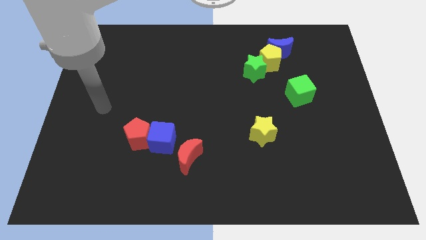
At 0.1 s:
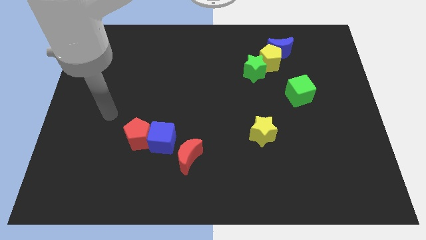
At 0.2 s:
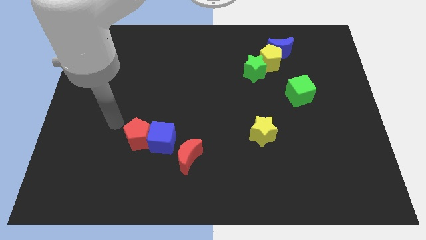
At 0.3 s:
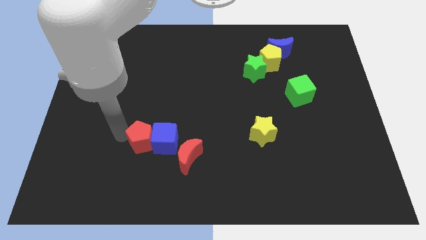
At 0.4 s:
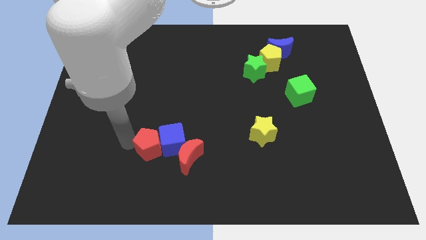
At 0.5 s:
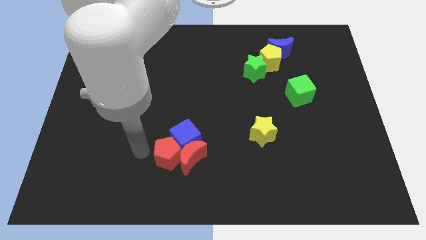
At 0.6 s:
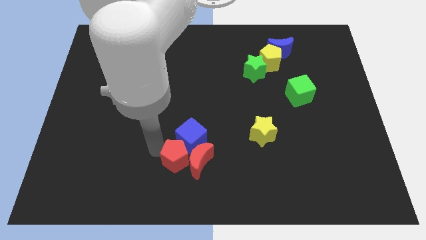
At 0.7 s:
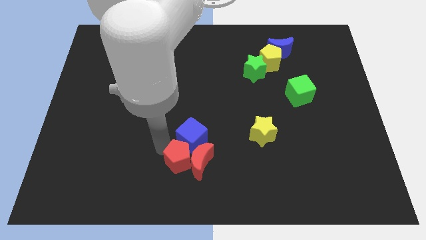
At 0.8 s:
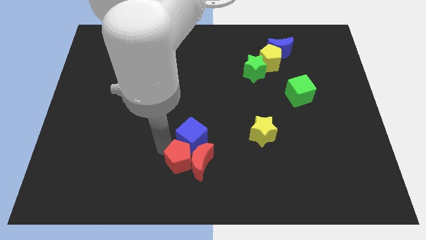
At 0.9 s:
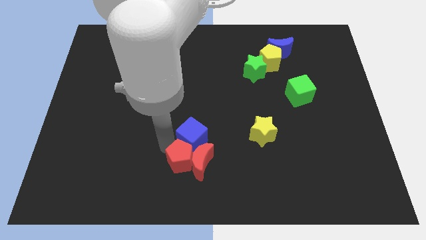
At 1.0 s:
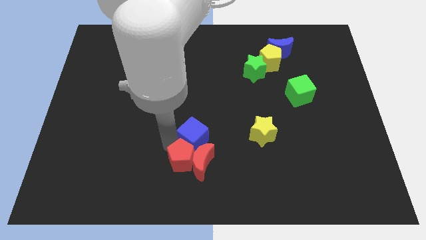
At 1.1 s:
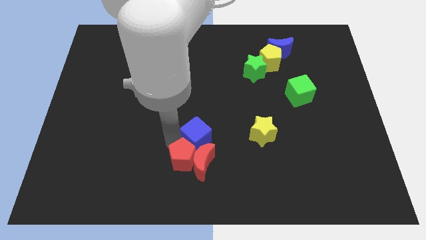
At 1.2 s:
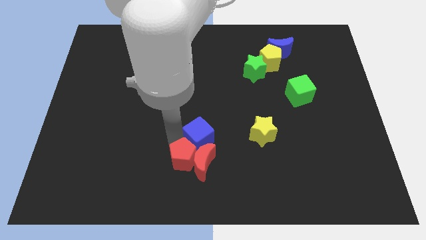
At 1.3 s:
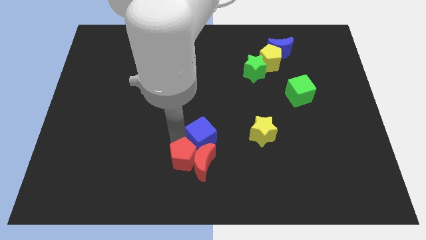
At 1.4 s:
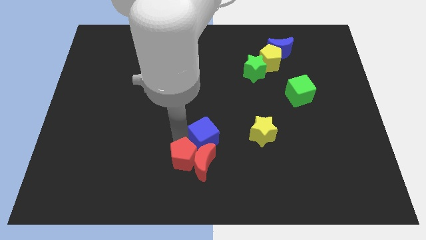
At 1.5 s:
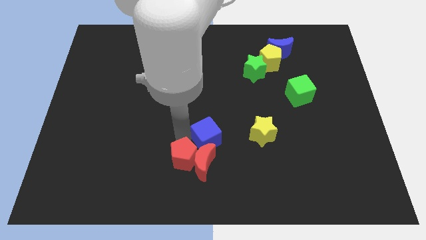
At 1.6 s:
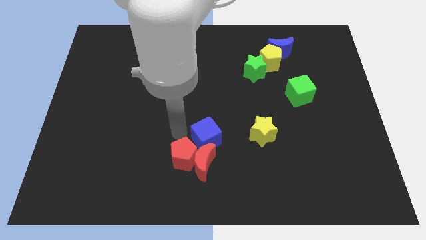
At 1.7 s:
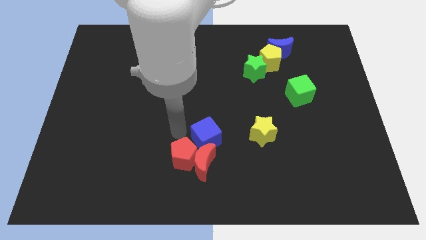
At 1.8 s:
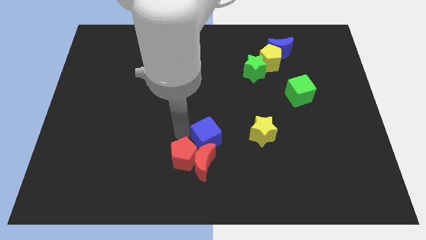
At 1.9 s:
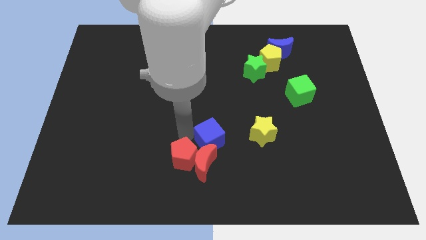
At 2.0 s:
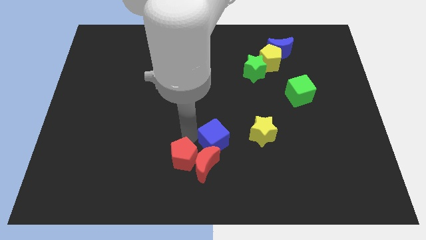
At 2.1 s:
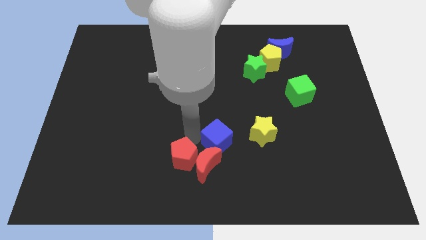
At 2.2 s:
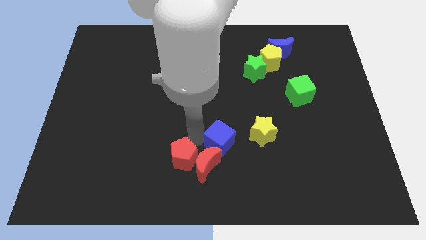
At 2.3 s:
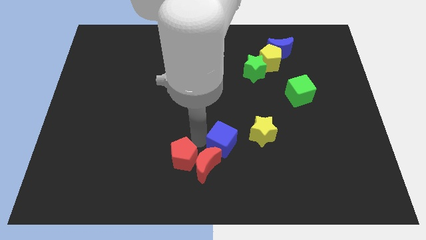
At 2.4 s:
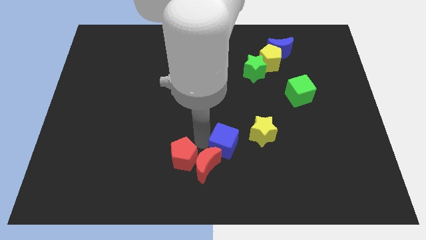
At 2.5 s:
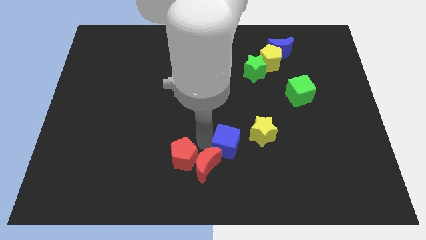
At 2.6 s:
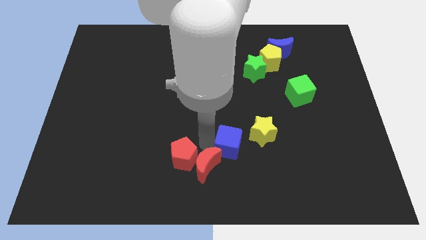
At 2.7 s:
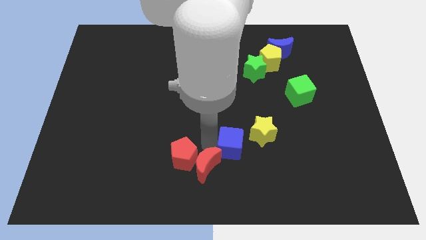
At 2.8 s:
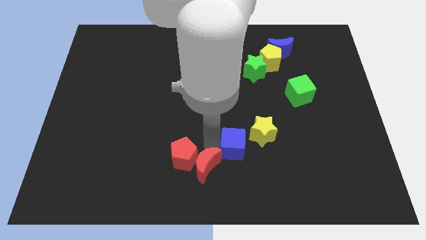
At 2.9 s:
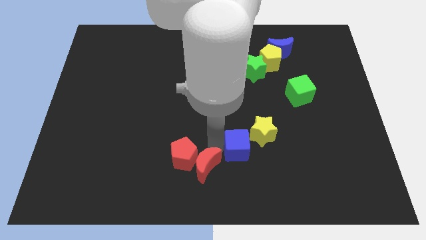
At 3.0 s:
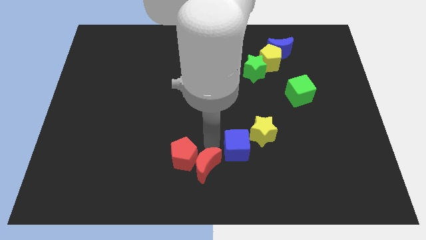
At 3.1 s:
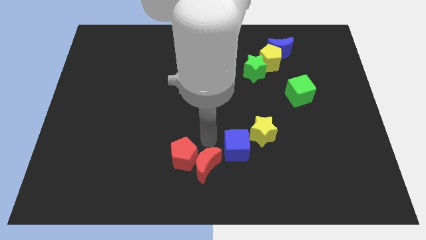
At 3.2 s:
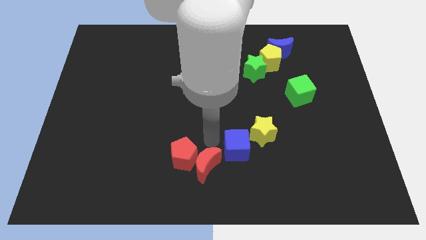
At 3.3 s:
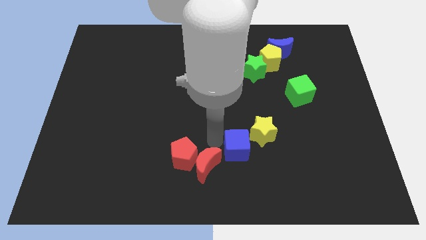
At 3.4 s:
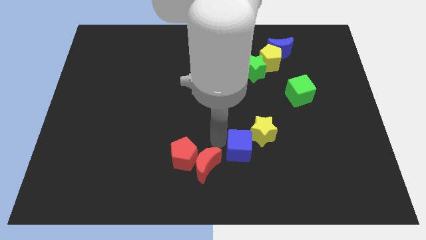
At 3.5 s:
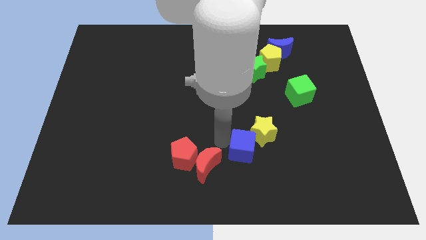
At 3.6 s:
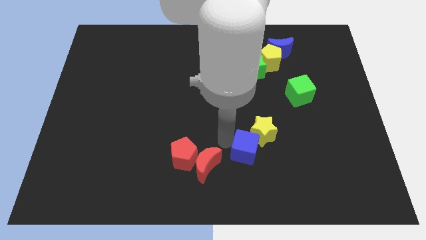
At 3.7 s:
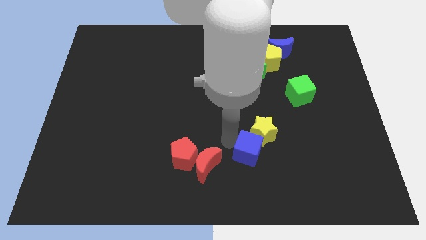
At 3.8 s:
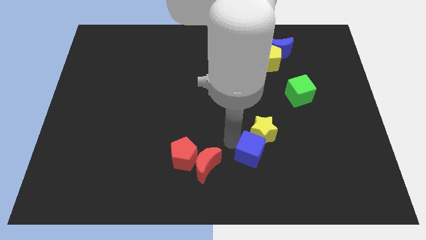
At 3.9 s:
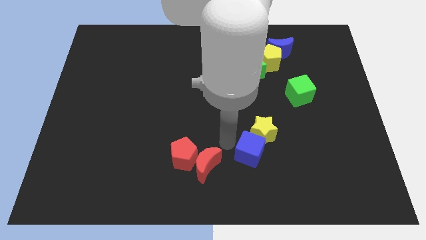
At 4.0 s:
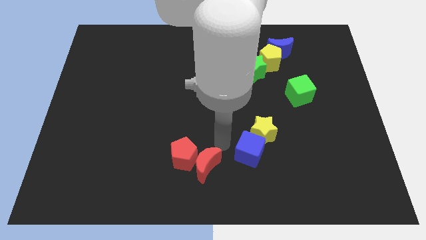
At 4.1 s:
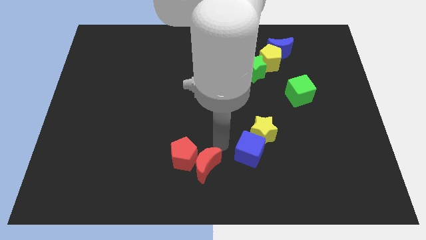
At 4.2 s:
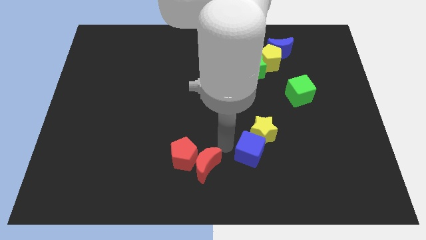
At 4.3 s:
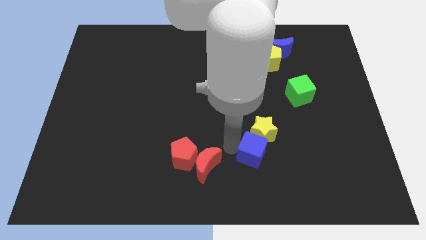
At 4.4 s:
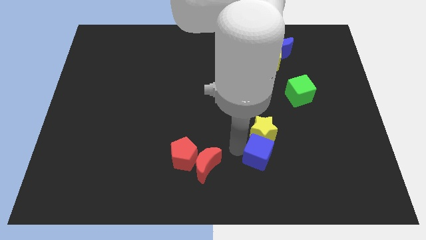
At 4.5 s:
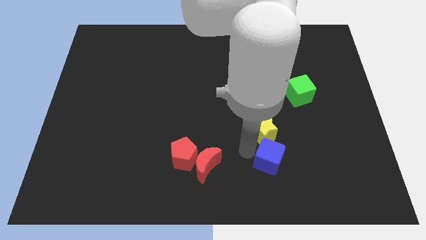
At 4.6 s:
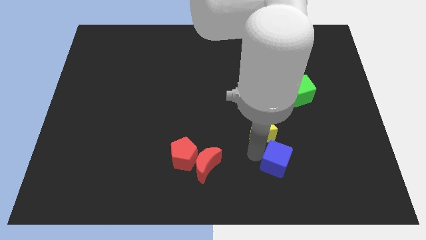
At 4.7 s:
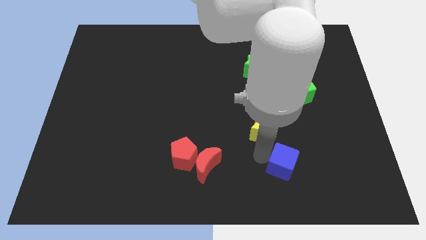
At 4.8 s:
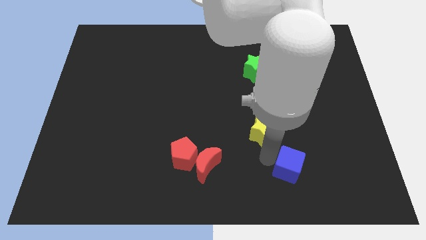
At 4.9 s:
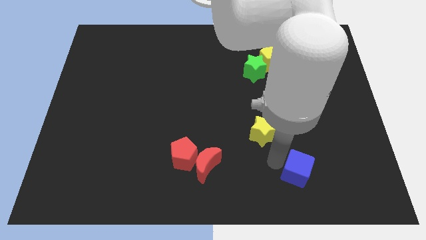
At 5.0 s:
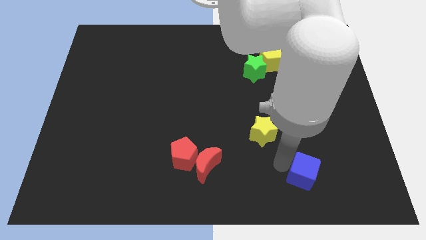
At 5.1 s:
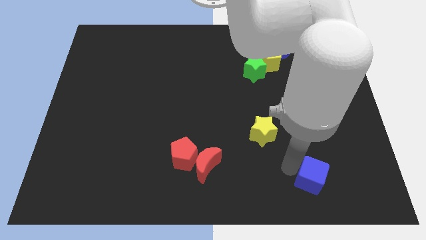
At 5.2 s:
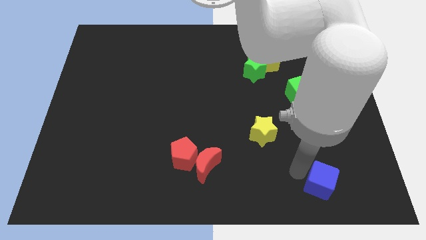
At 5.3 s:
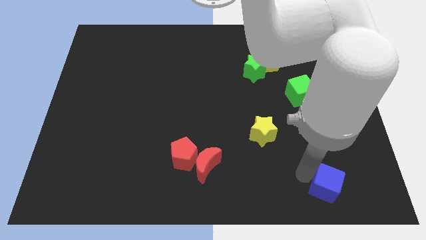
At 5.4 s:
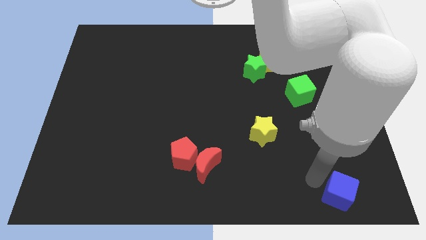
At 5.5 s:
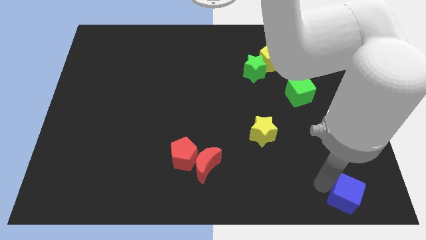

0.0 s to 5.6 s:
move the blue cube to the bottom right corner

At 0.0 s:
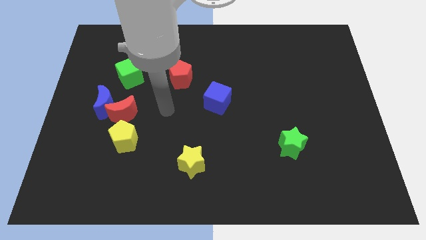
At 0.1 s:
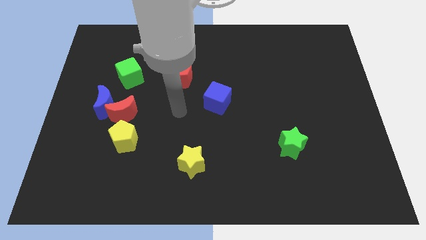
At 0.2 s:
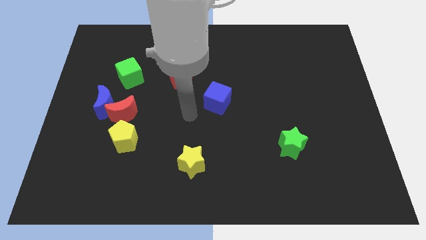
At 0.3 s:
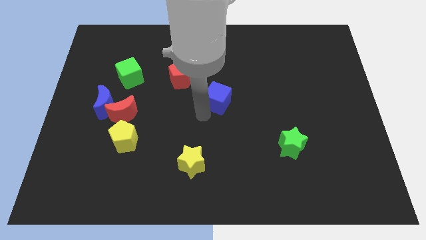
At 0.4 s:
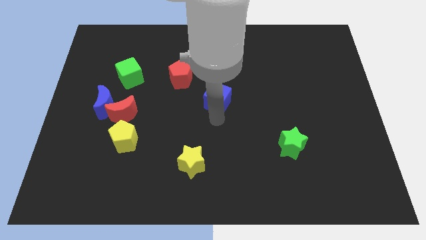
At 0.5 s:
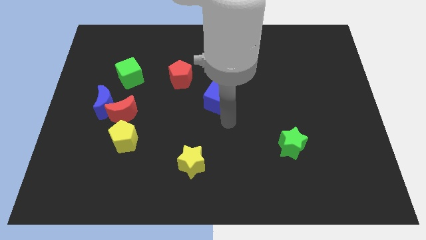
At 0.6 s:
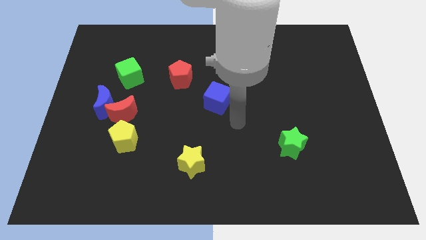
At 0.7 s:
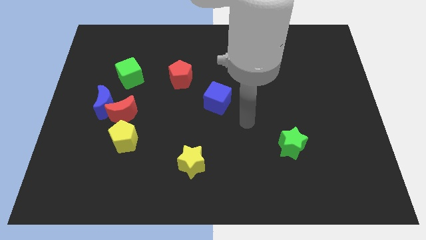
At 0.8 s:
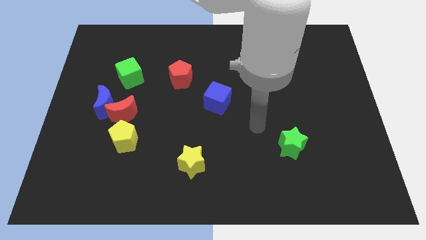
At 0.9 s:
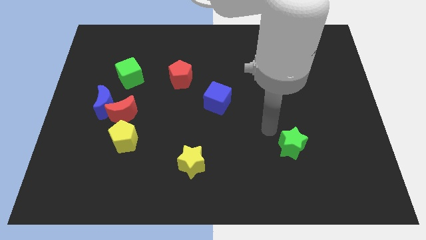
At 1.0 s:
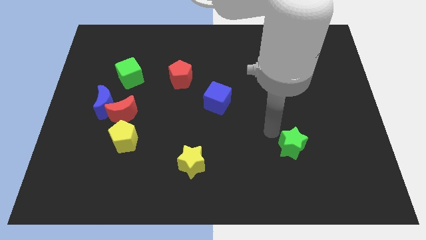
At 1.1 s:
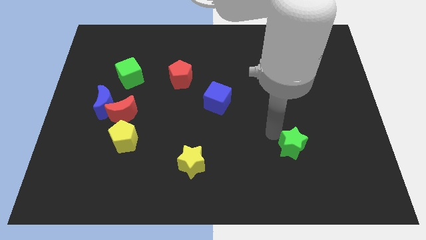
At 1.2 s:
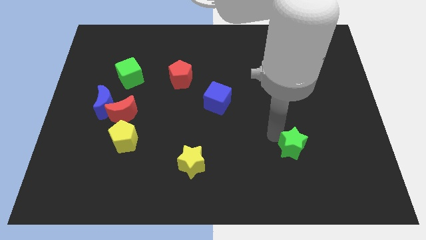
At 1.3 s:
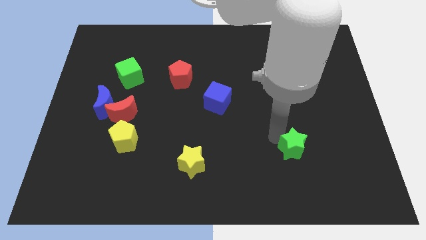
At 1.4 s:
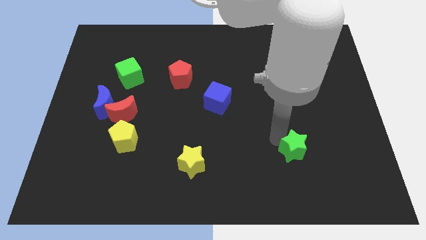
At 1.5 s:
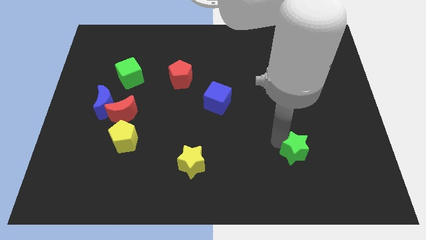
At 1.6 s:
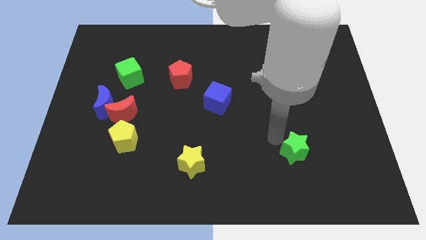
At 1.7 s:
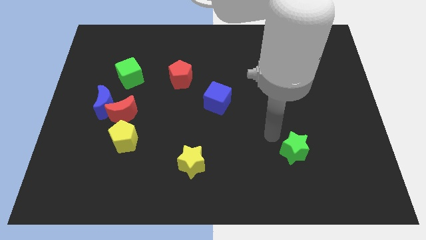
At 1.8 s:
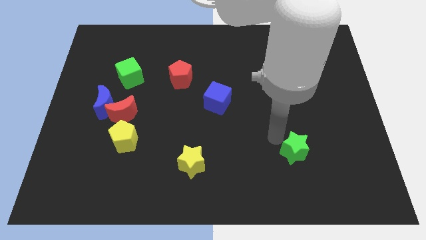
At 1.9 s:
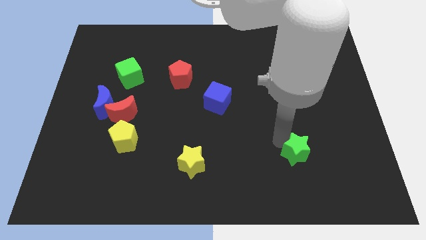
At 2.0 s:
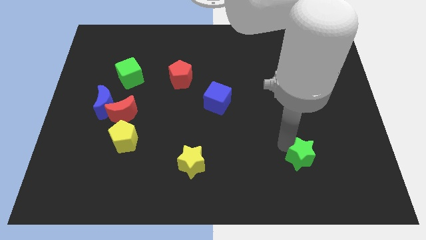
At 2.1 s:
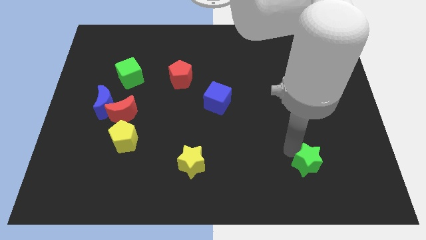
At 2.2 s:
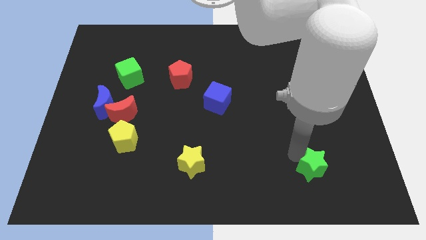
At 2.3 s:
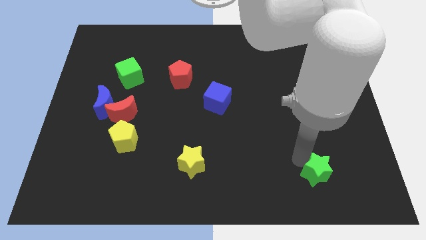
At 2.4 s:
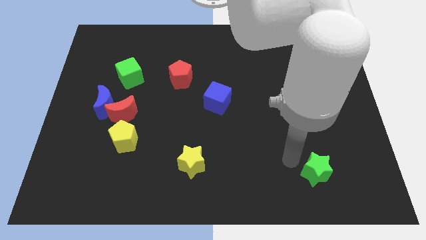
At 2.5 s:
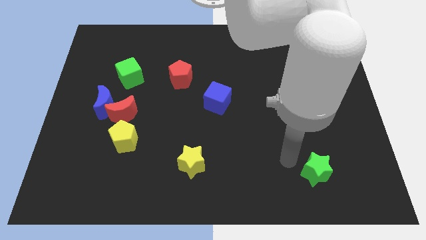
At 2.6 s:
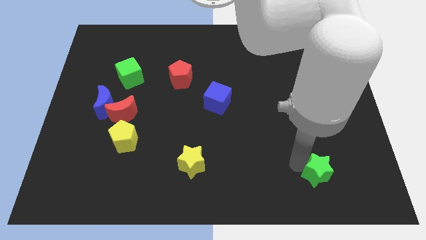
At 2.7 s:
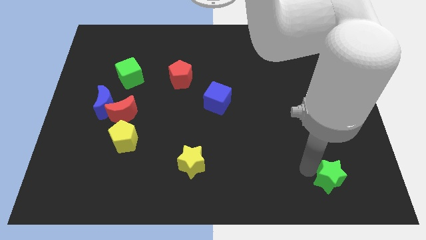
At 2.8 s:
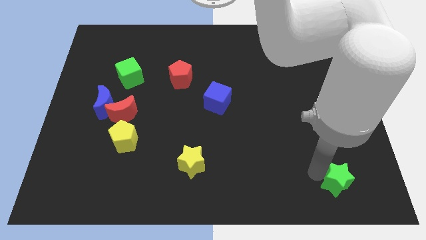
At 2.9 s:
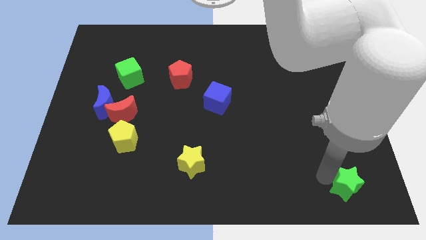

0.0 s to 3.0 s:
push the green star to the bottom right of the board
